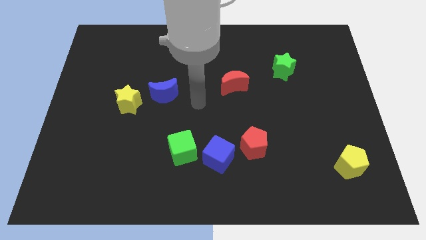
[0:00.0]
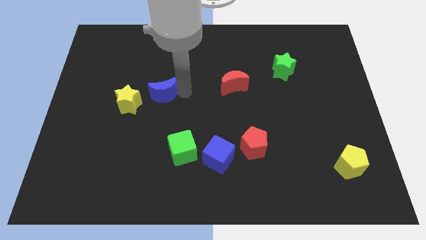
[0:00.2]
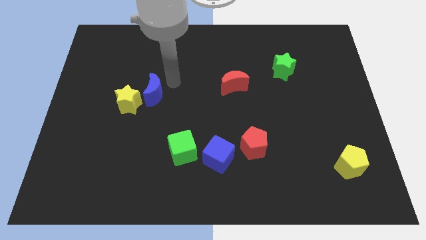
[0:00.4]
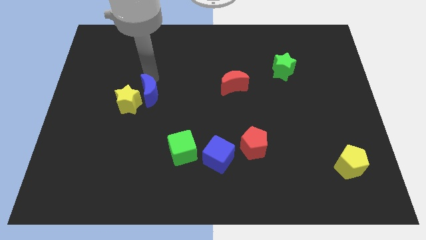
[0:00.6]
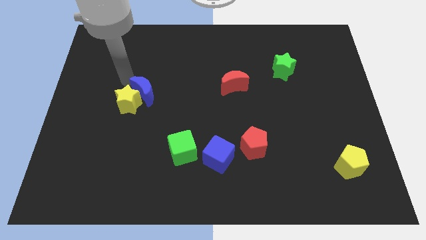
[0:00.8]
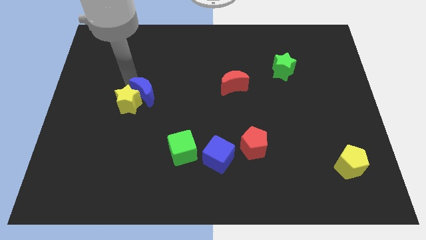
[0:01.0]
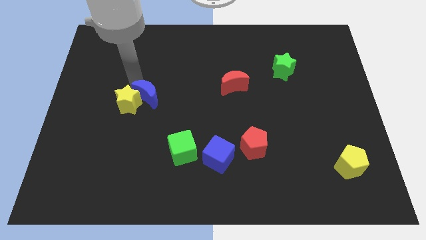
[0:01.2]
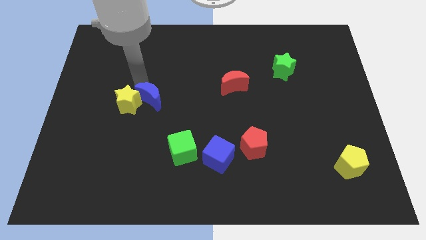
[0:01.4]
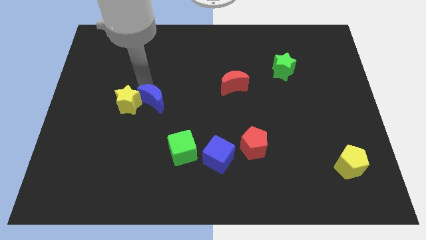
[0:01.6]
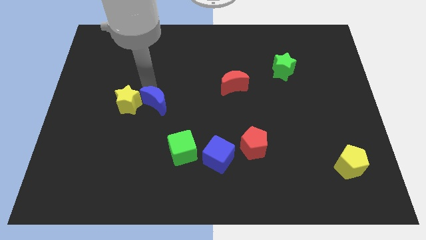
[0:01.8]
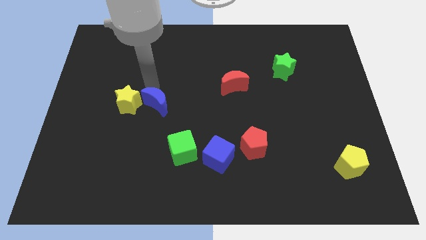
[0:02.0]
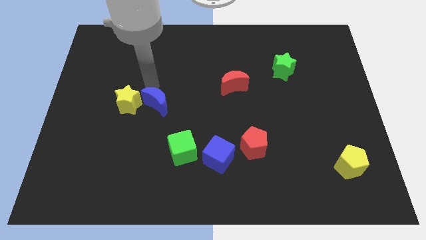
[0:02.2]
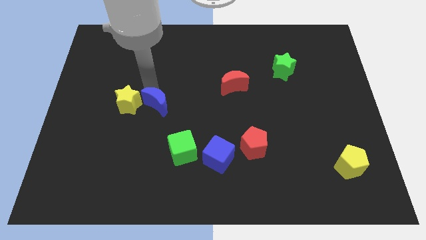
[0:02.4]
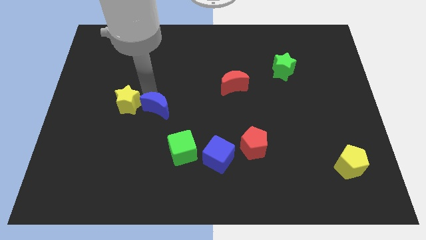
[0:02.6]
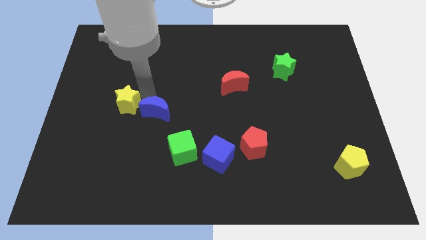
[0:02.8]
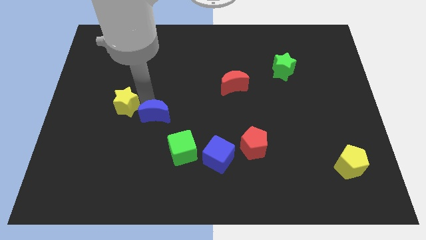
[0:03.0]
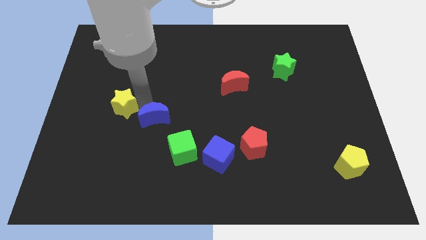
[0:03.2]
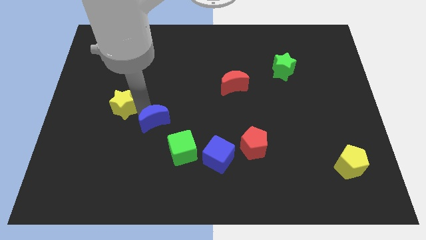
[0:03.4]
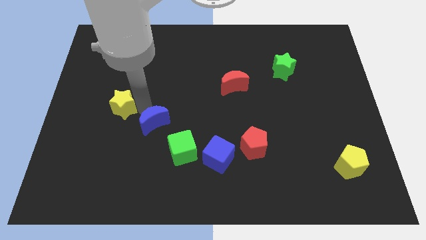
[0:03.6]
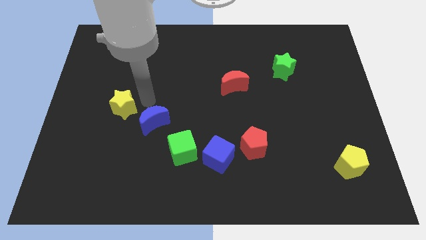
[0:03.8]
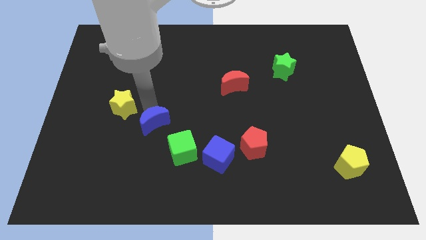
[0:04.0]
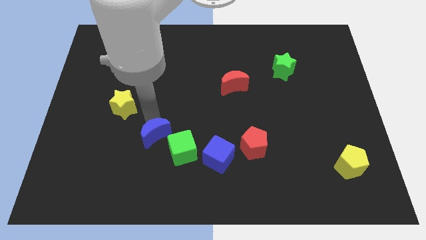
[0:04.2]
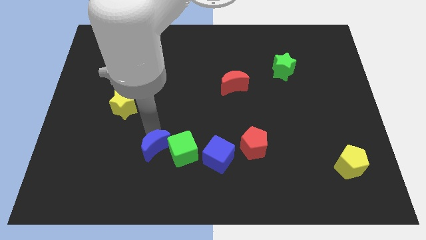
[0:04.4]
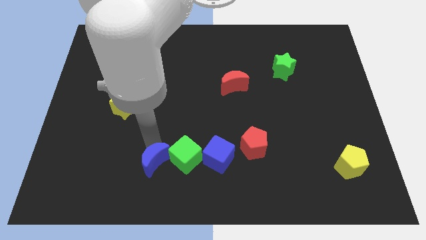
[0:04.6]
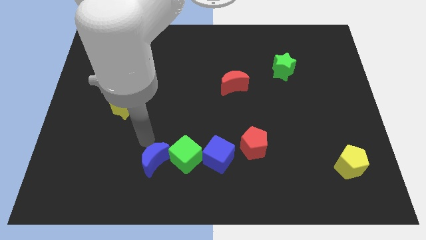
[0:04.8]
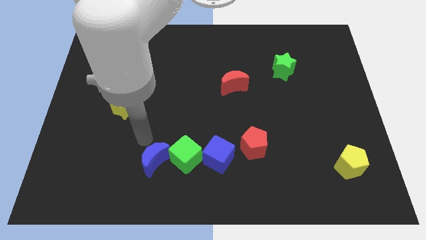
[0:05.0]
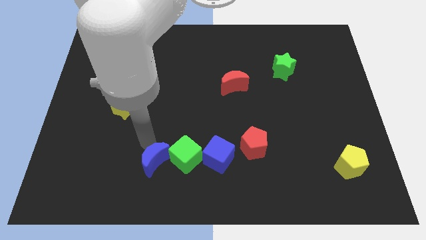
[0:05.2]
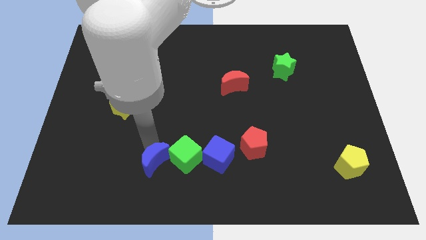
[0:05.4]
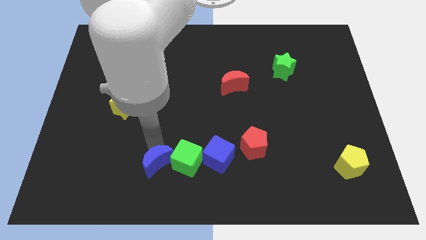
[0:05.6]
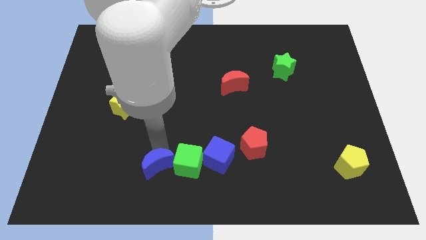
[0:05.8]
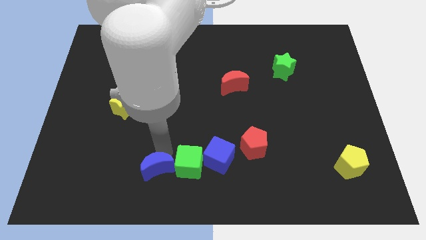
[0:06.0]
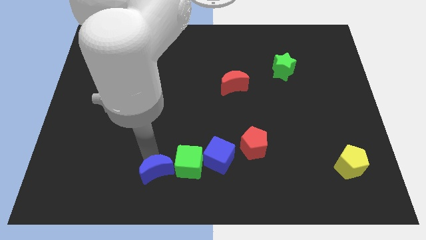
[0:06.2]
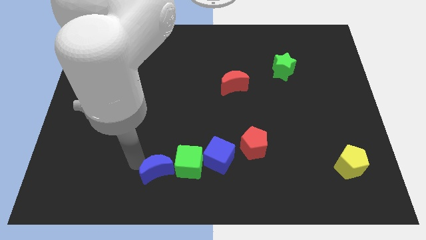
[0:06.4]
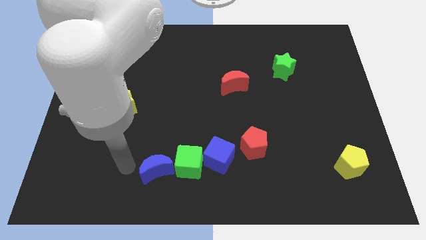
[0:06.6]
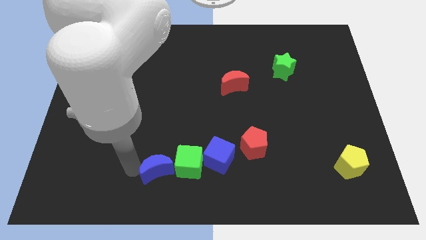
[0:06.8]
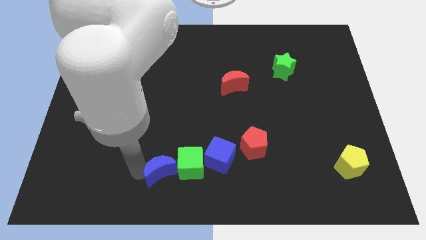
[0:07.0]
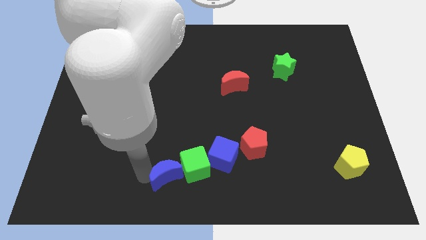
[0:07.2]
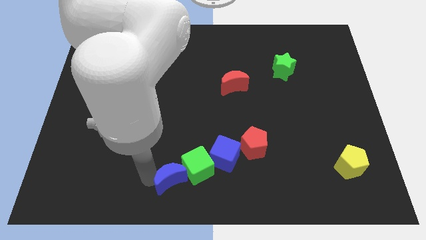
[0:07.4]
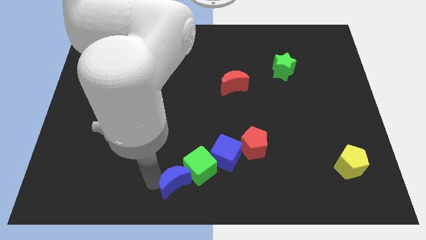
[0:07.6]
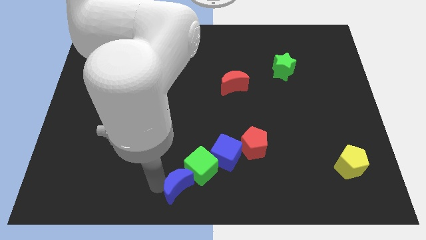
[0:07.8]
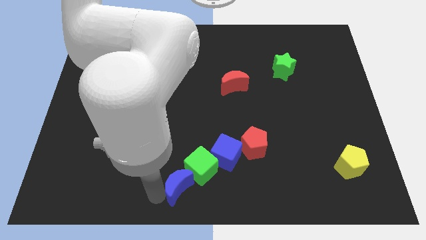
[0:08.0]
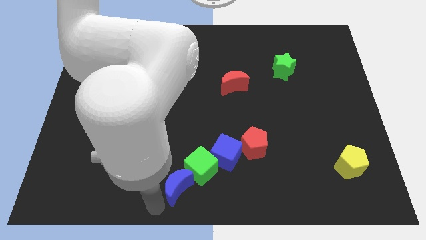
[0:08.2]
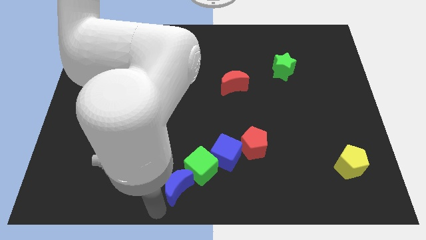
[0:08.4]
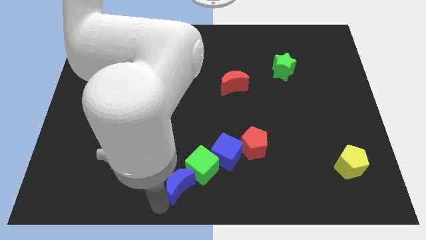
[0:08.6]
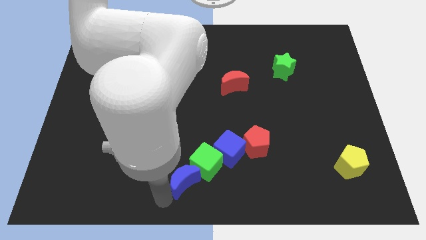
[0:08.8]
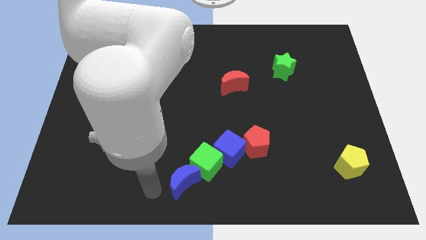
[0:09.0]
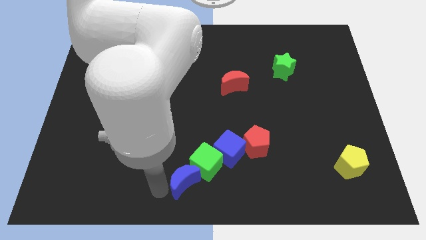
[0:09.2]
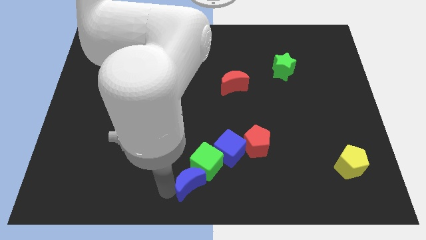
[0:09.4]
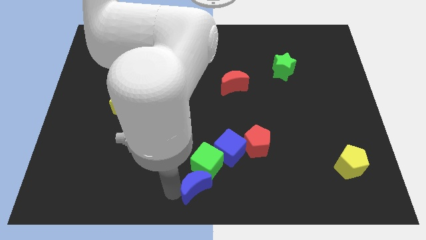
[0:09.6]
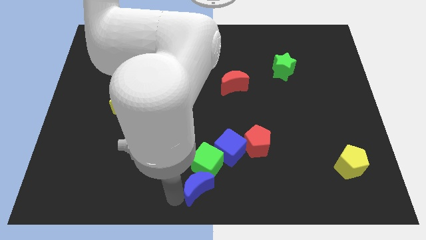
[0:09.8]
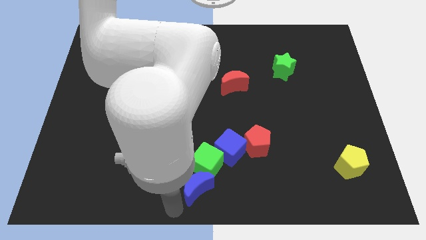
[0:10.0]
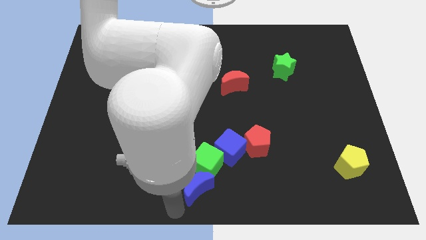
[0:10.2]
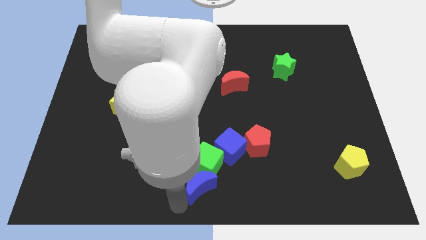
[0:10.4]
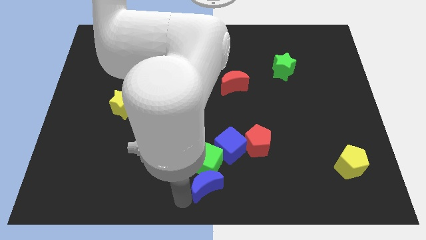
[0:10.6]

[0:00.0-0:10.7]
slide the blue moon downwards and to the right

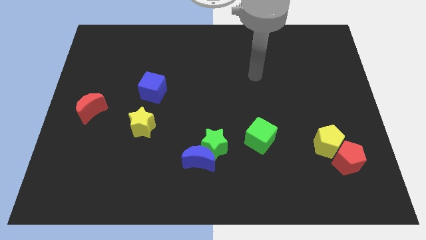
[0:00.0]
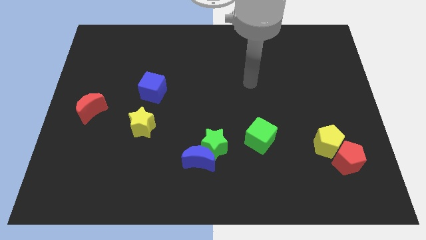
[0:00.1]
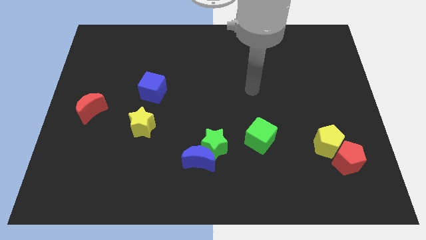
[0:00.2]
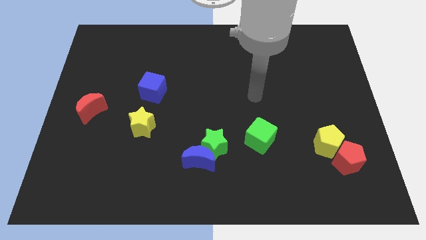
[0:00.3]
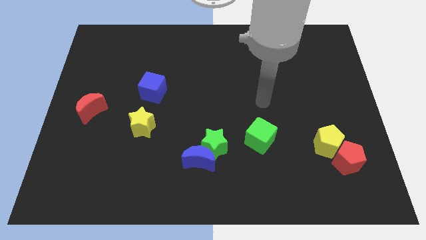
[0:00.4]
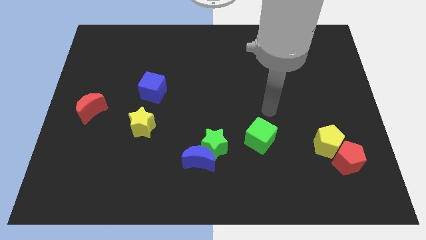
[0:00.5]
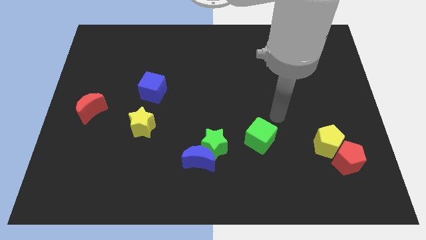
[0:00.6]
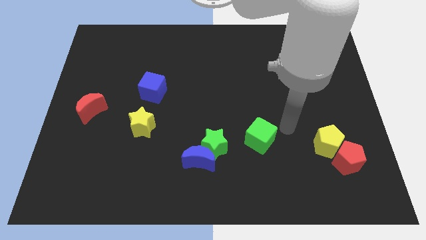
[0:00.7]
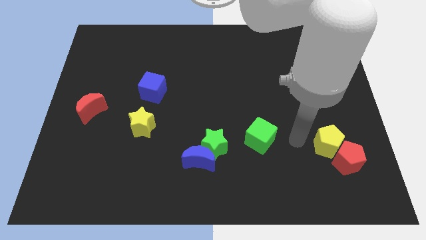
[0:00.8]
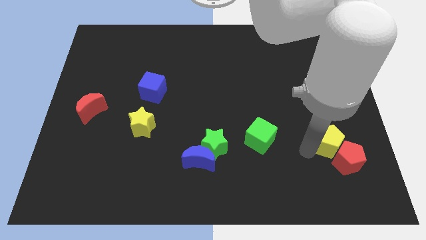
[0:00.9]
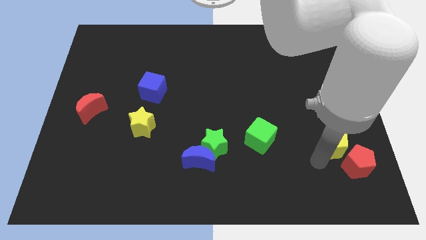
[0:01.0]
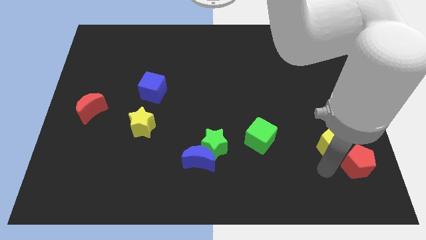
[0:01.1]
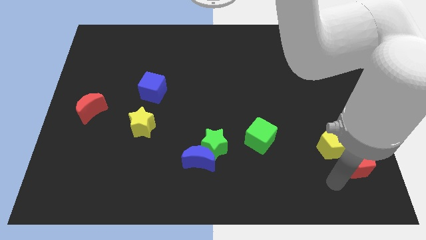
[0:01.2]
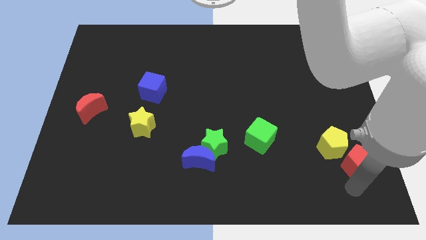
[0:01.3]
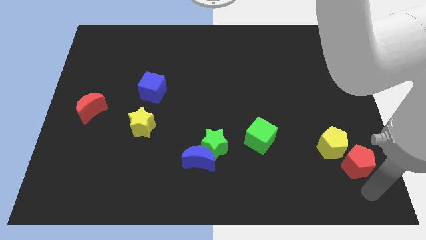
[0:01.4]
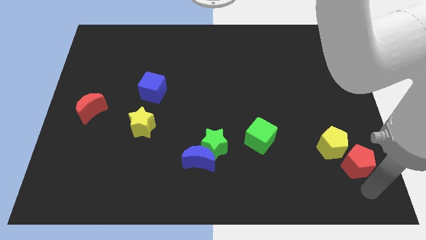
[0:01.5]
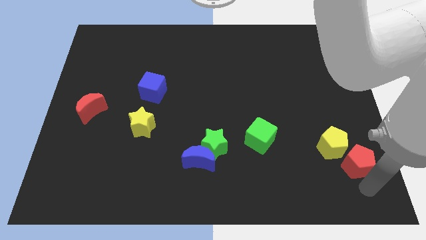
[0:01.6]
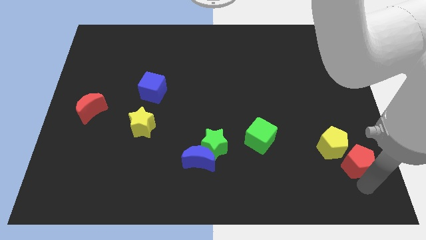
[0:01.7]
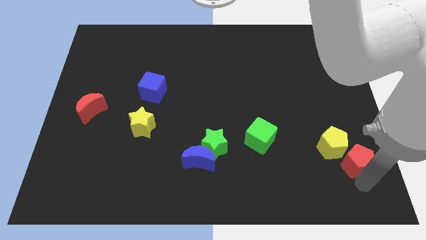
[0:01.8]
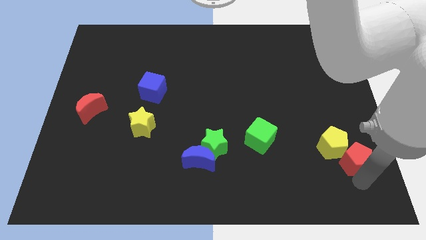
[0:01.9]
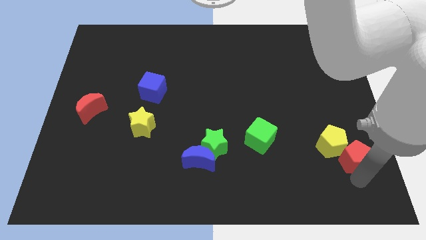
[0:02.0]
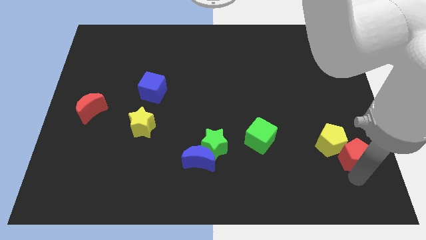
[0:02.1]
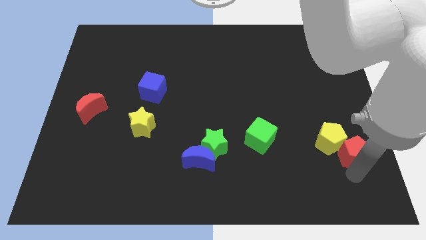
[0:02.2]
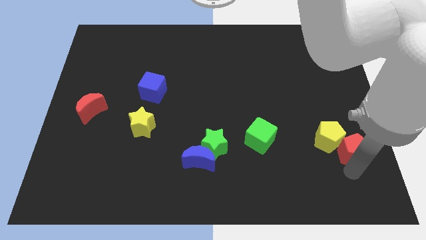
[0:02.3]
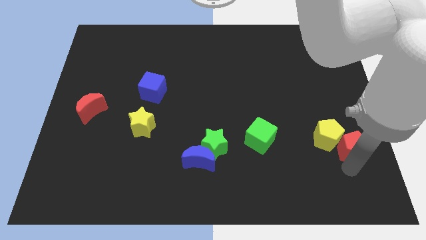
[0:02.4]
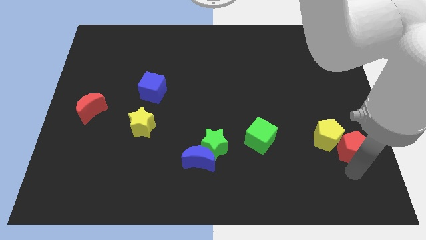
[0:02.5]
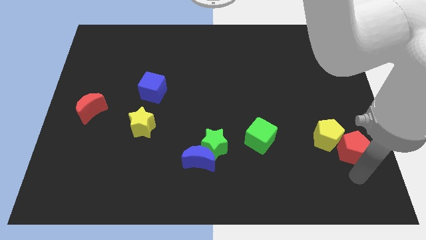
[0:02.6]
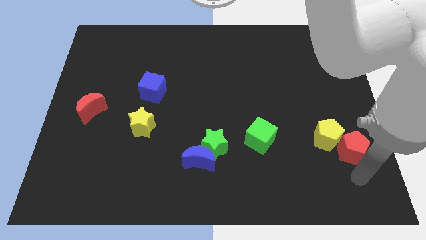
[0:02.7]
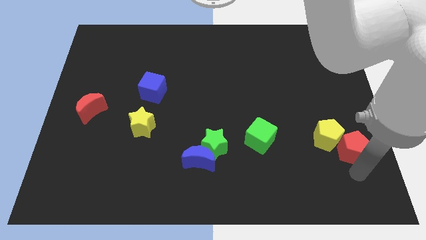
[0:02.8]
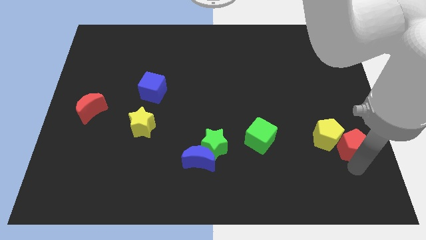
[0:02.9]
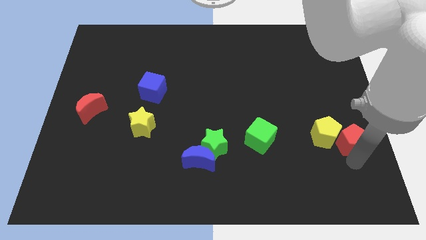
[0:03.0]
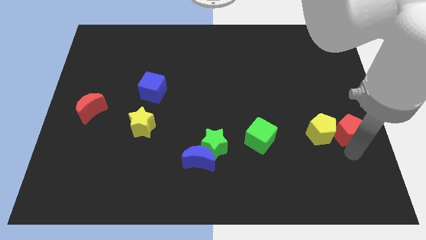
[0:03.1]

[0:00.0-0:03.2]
slide the red pentagon up slightly
